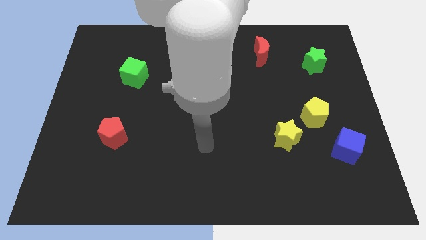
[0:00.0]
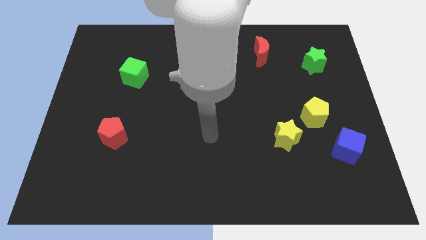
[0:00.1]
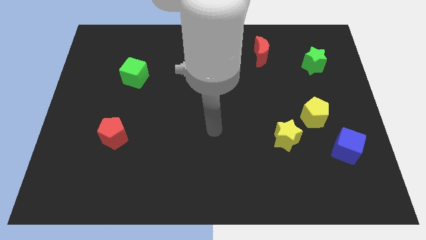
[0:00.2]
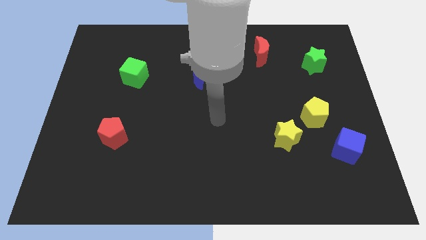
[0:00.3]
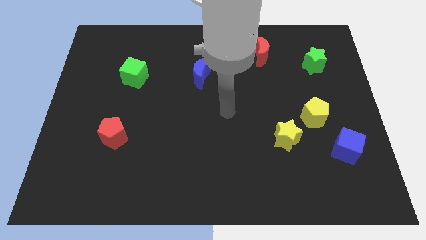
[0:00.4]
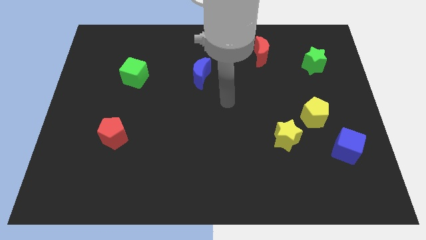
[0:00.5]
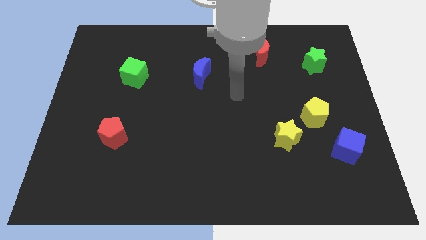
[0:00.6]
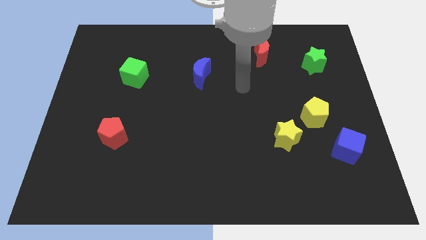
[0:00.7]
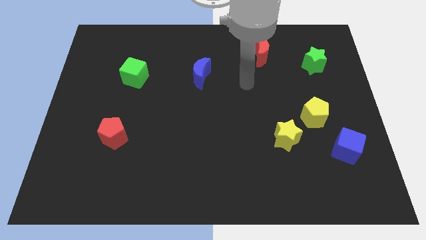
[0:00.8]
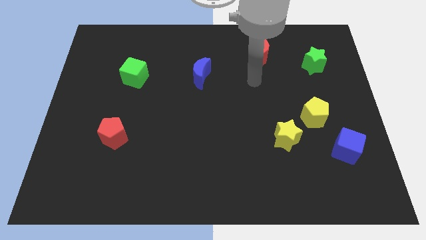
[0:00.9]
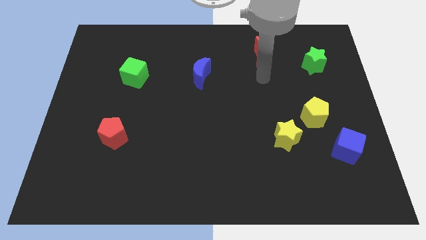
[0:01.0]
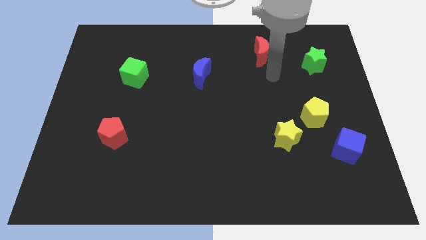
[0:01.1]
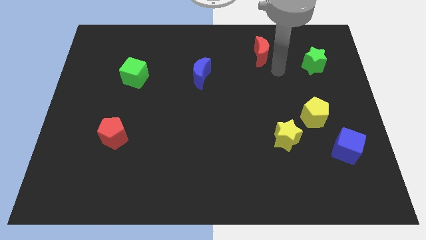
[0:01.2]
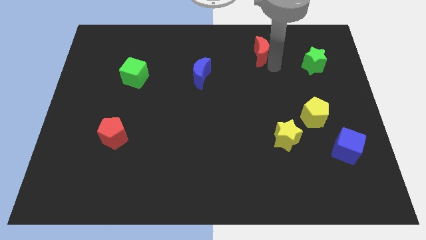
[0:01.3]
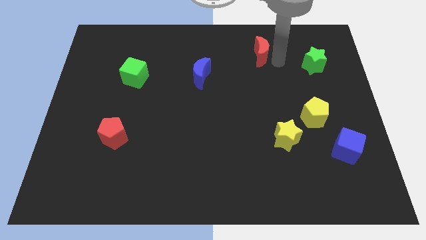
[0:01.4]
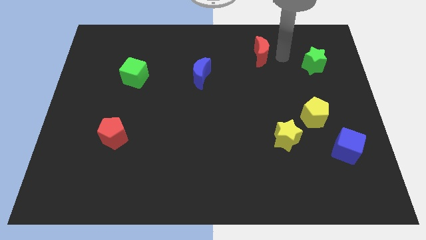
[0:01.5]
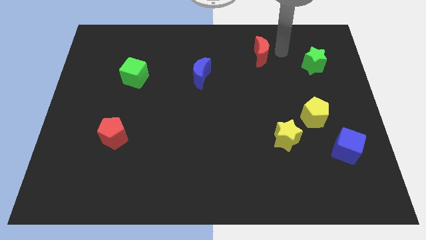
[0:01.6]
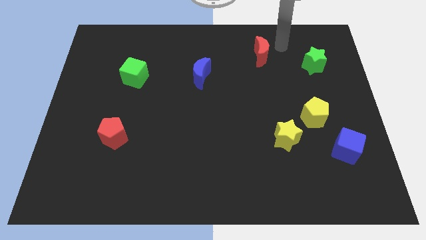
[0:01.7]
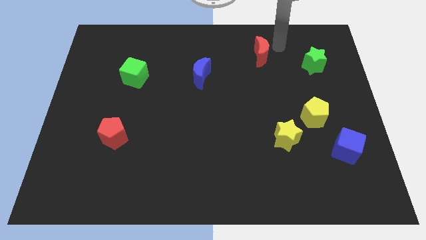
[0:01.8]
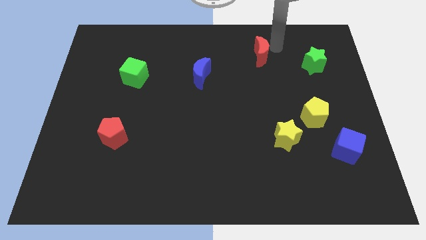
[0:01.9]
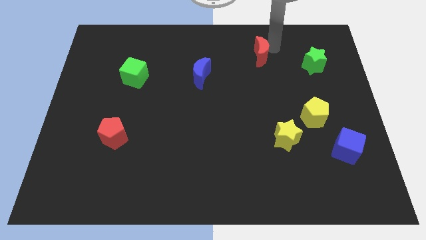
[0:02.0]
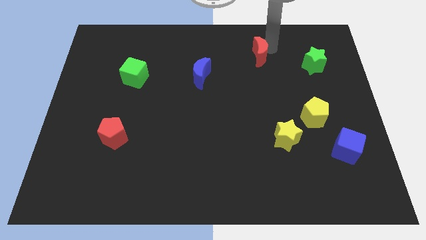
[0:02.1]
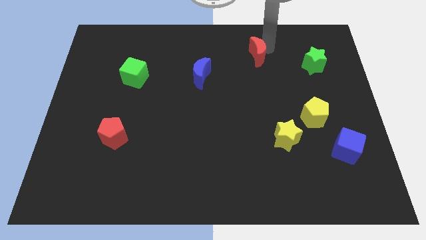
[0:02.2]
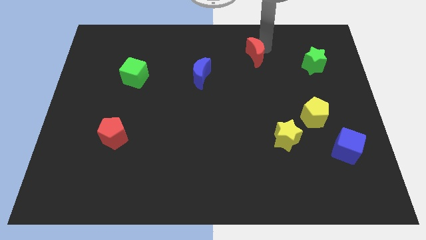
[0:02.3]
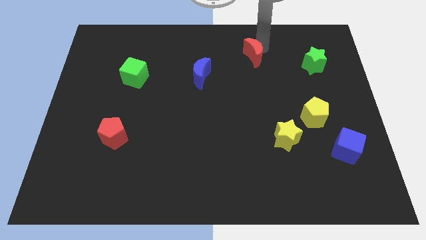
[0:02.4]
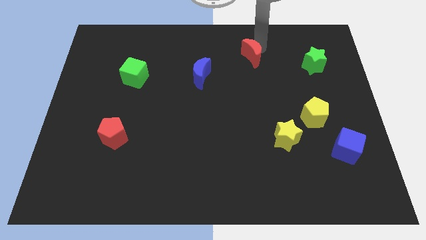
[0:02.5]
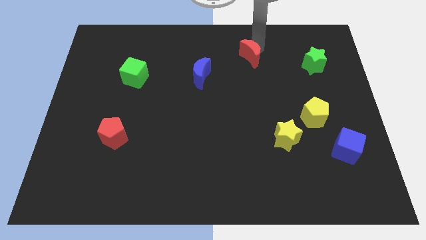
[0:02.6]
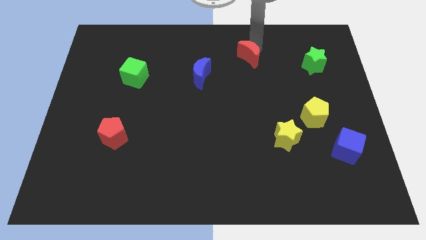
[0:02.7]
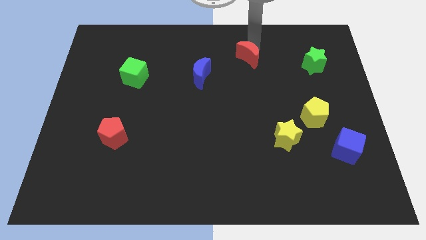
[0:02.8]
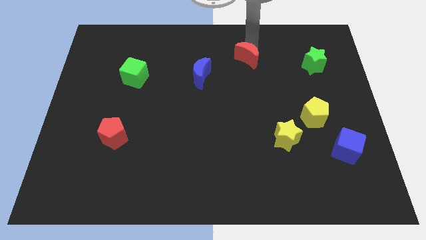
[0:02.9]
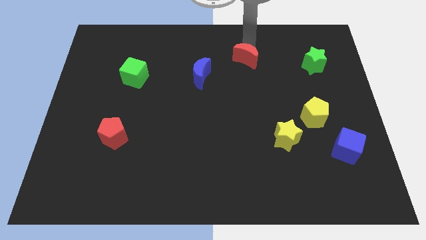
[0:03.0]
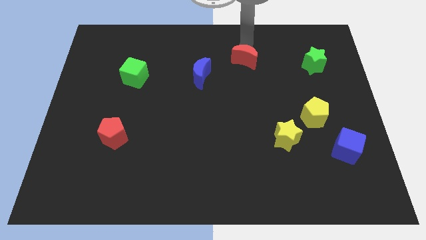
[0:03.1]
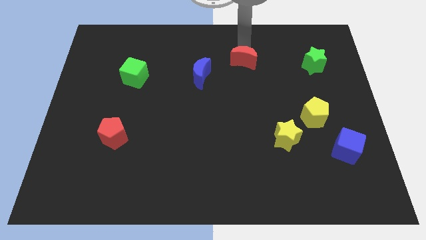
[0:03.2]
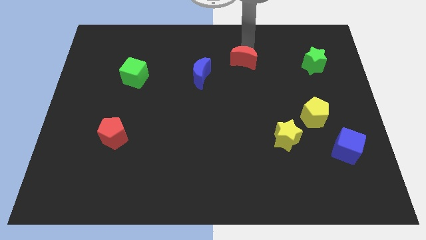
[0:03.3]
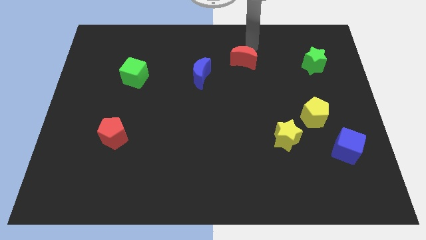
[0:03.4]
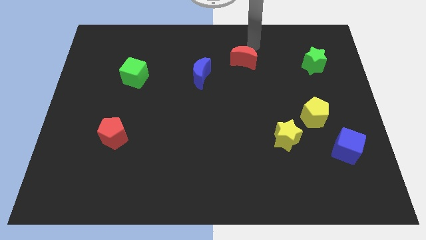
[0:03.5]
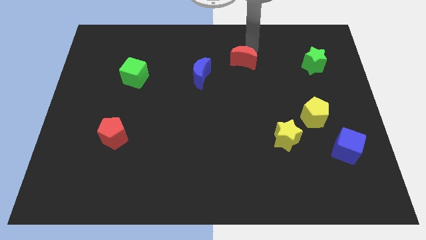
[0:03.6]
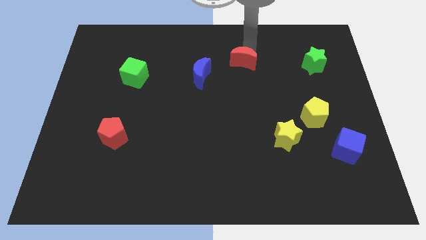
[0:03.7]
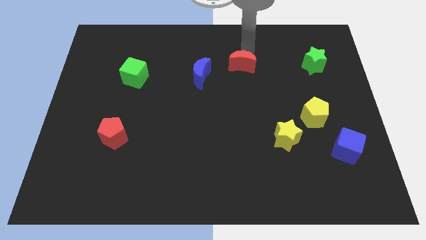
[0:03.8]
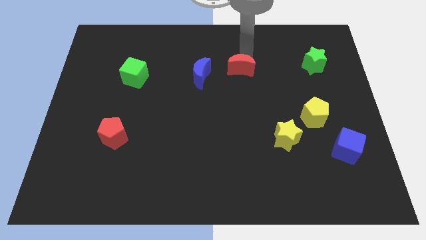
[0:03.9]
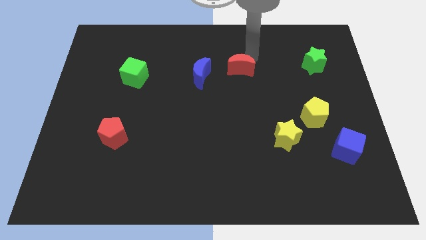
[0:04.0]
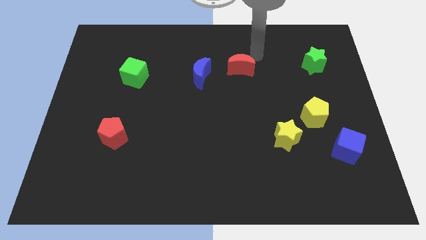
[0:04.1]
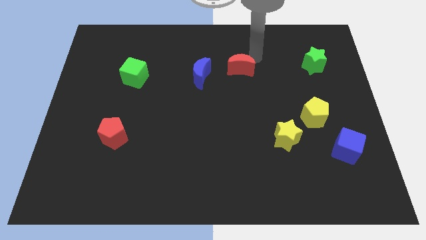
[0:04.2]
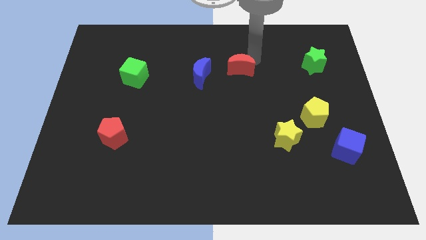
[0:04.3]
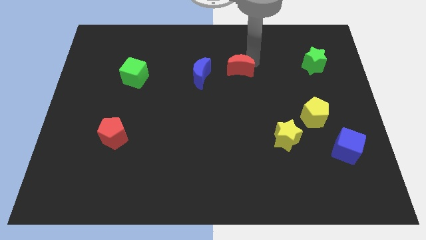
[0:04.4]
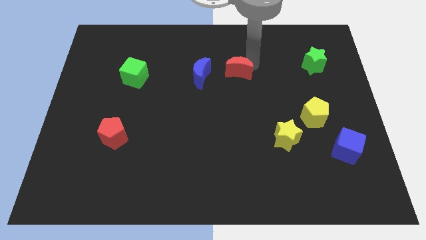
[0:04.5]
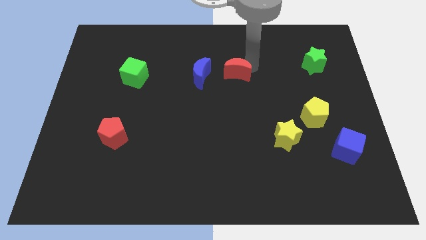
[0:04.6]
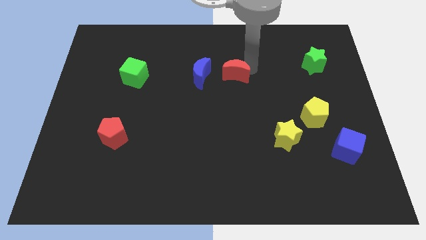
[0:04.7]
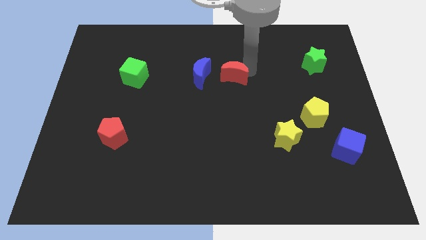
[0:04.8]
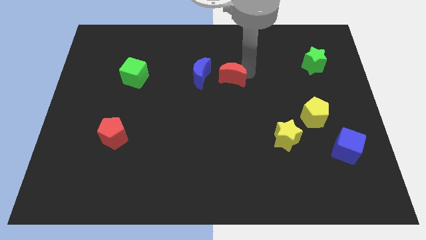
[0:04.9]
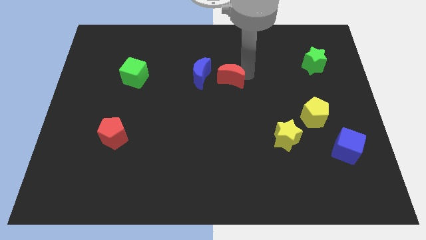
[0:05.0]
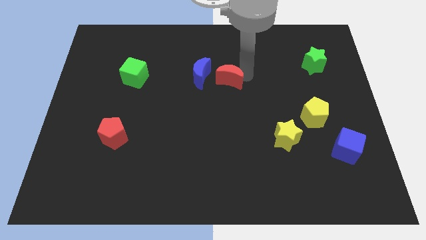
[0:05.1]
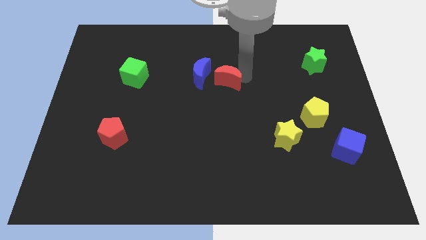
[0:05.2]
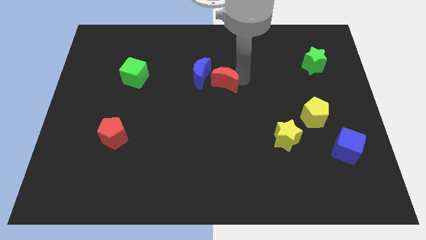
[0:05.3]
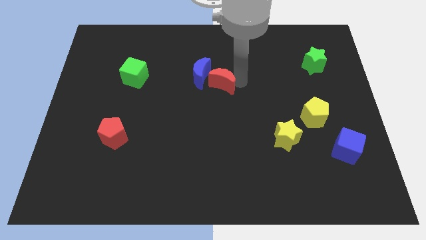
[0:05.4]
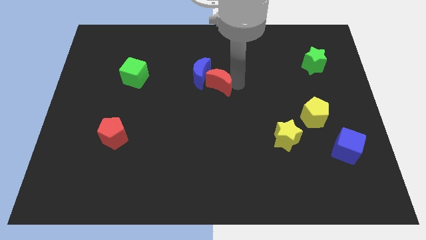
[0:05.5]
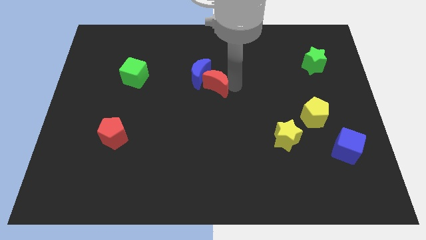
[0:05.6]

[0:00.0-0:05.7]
slide the red moon to the bottom side of the blue moon

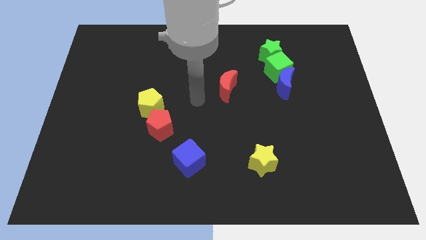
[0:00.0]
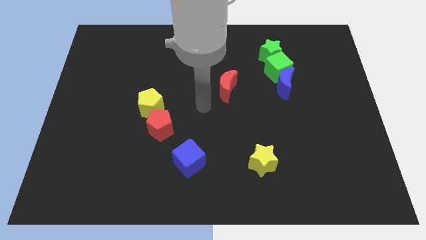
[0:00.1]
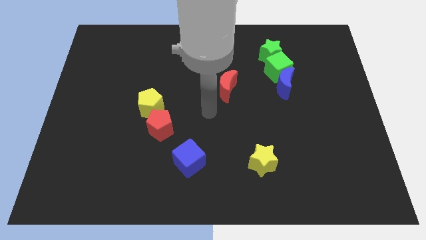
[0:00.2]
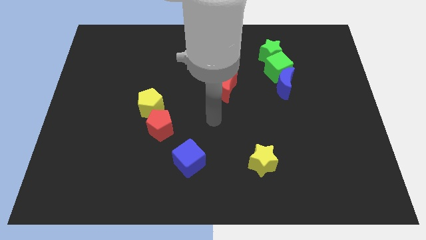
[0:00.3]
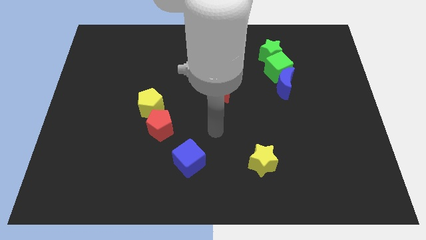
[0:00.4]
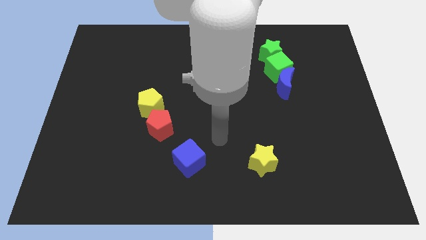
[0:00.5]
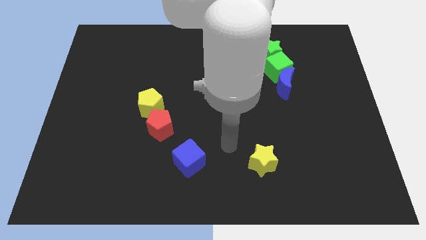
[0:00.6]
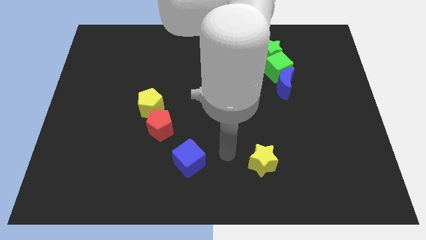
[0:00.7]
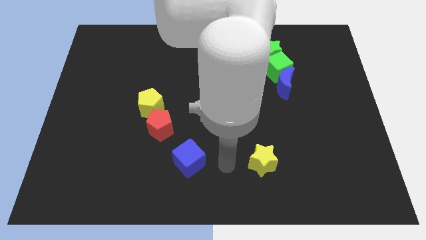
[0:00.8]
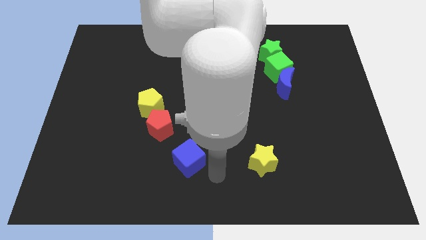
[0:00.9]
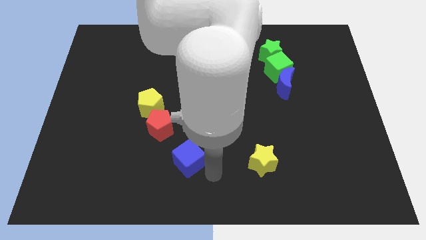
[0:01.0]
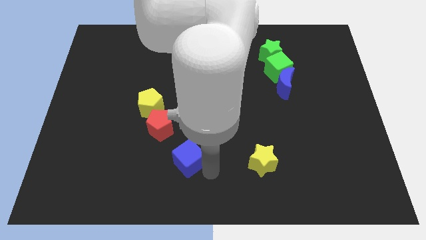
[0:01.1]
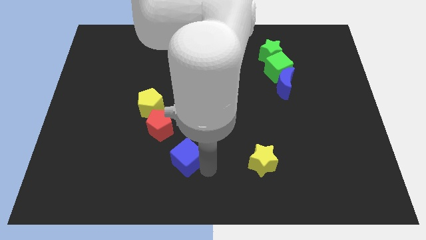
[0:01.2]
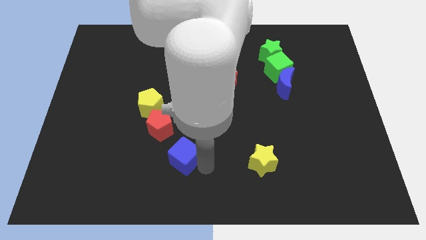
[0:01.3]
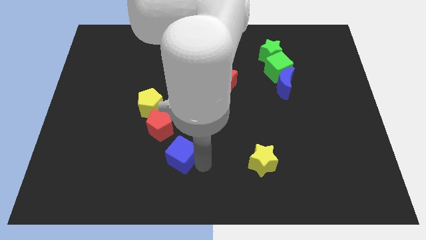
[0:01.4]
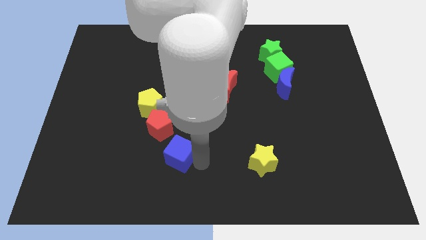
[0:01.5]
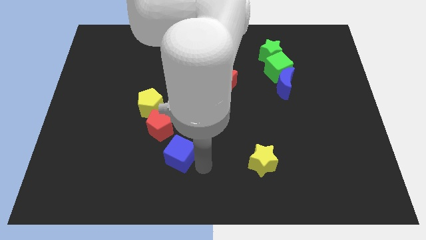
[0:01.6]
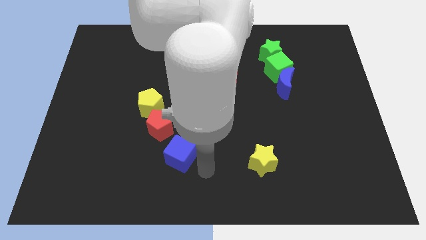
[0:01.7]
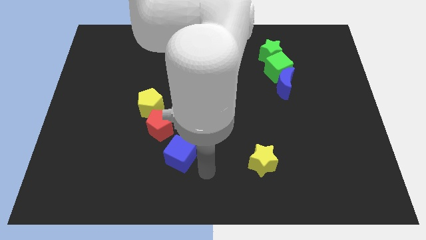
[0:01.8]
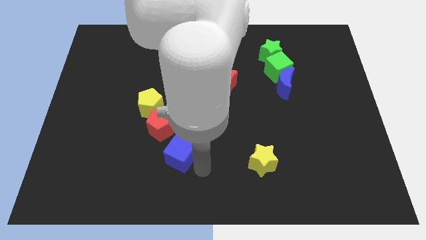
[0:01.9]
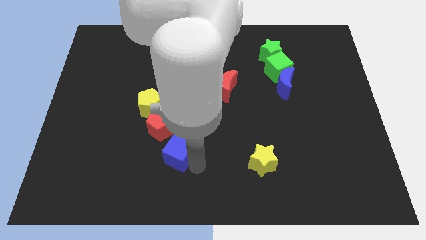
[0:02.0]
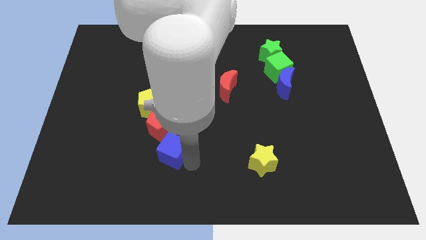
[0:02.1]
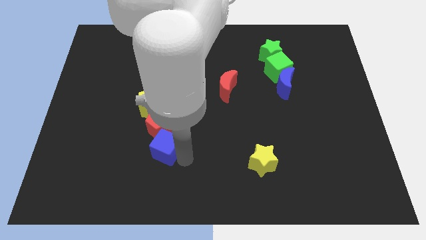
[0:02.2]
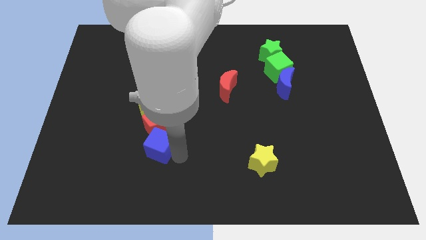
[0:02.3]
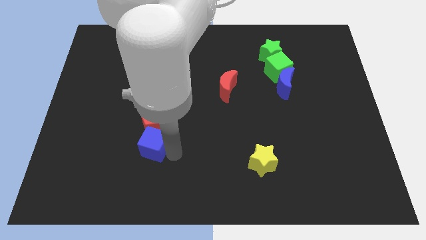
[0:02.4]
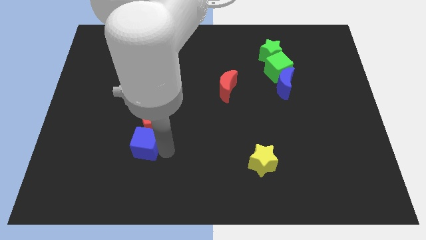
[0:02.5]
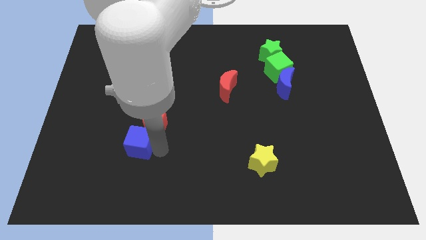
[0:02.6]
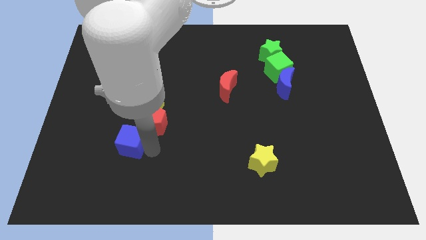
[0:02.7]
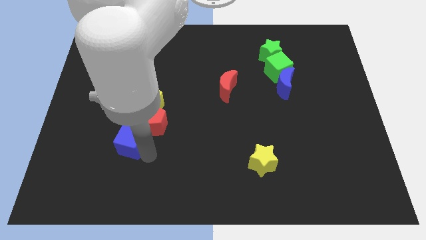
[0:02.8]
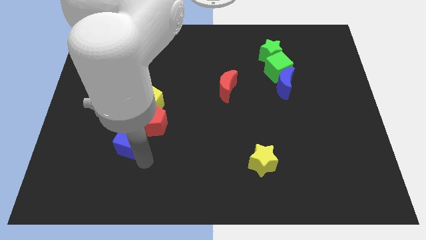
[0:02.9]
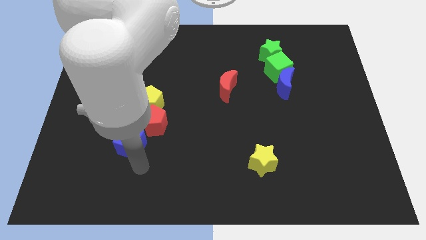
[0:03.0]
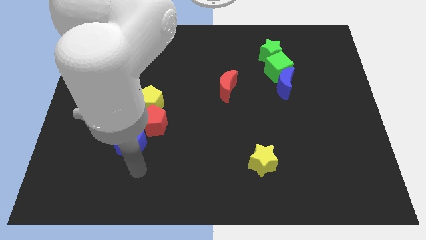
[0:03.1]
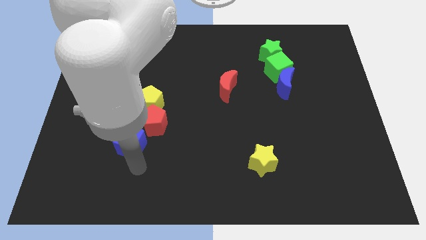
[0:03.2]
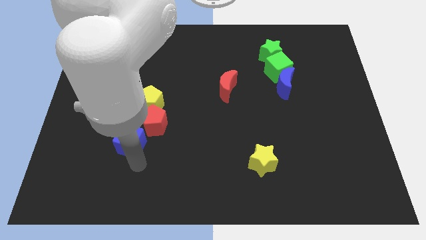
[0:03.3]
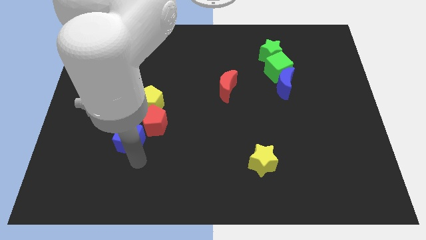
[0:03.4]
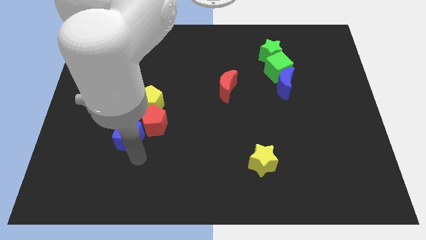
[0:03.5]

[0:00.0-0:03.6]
slide the blue cube to the bottom left side of the yellow pentagon
